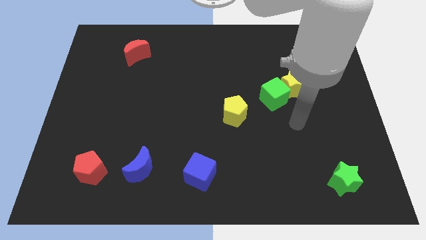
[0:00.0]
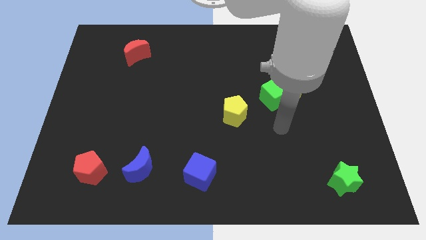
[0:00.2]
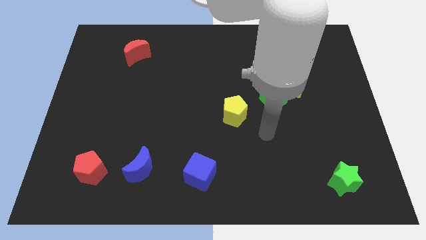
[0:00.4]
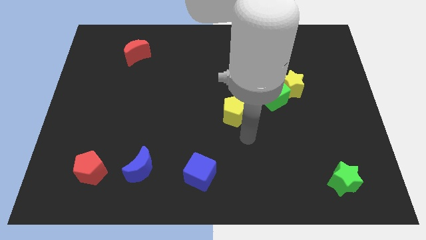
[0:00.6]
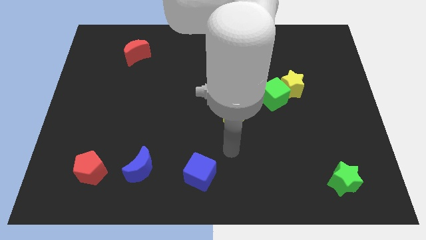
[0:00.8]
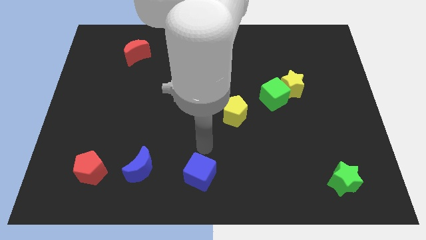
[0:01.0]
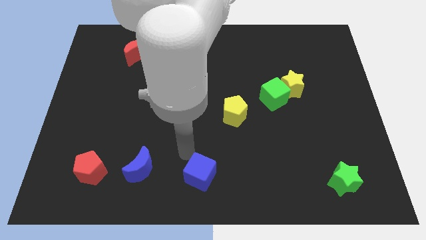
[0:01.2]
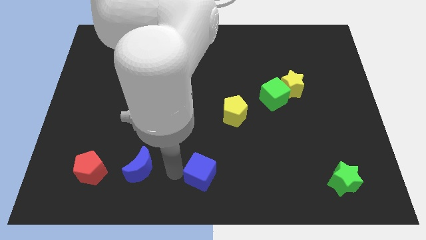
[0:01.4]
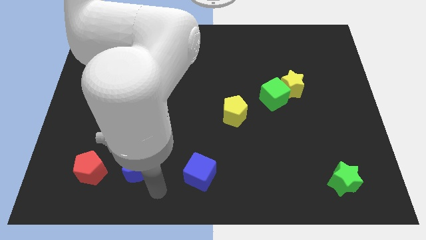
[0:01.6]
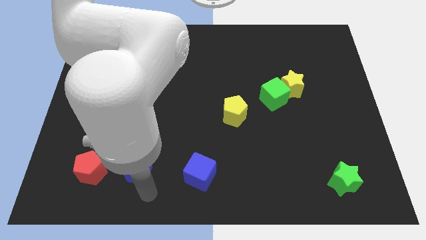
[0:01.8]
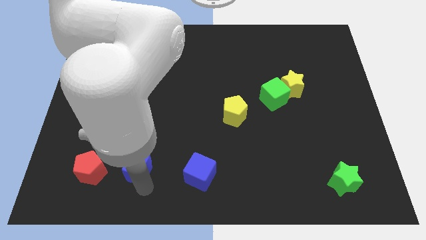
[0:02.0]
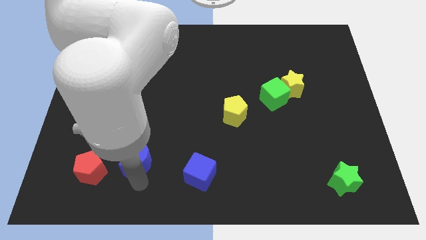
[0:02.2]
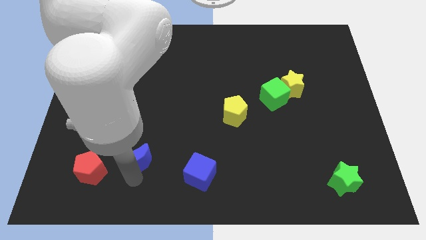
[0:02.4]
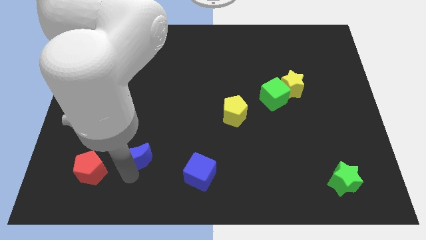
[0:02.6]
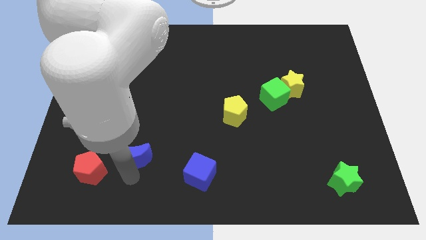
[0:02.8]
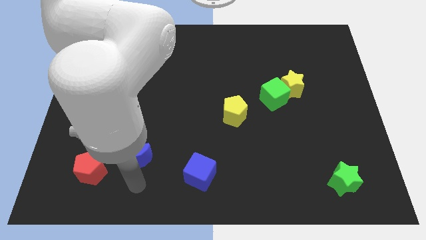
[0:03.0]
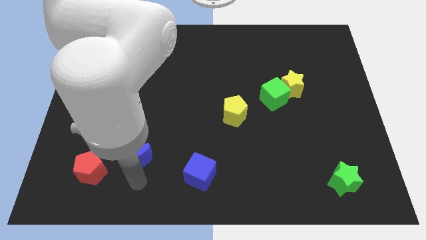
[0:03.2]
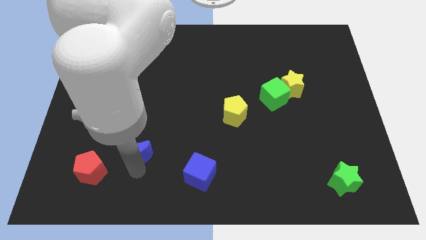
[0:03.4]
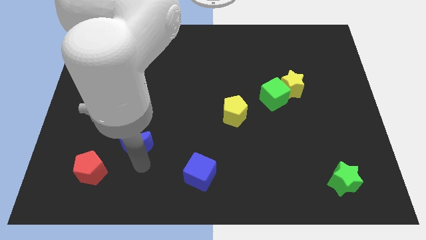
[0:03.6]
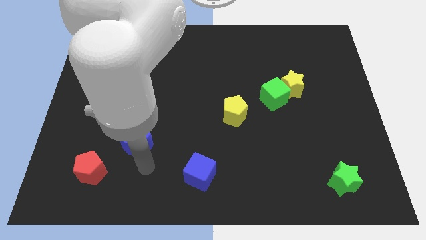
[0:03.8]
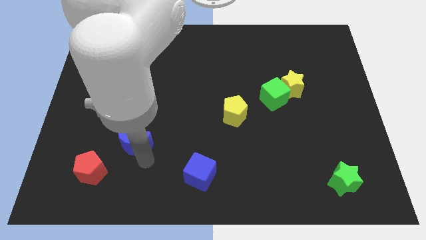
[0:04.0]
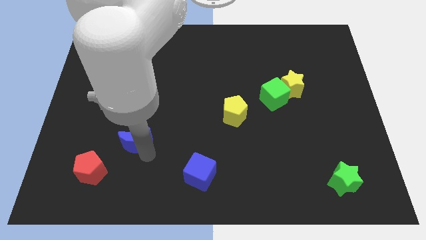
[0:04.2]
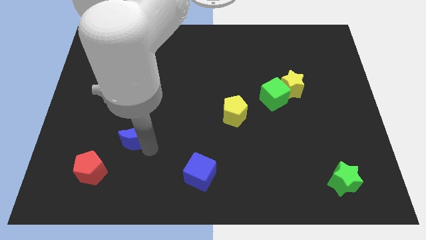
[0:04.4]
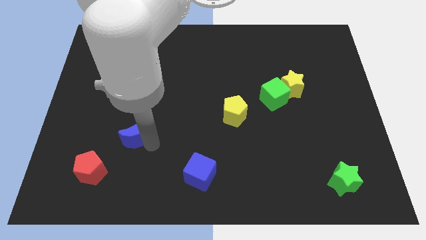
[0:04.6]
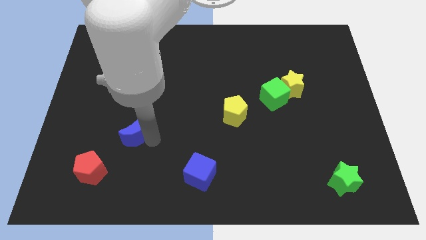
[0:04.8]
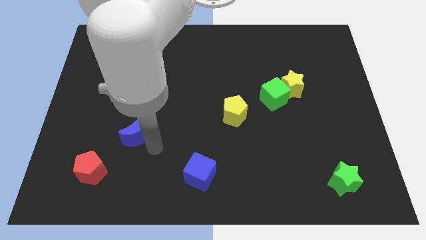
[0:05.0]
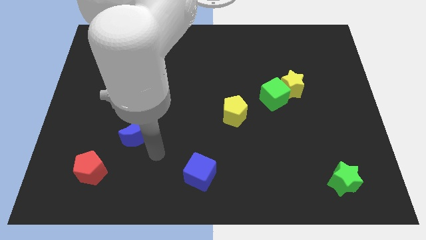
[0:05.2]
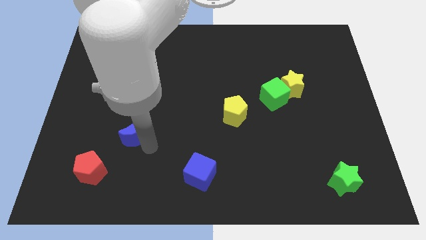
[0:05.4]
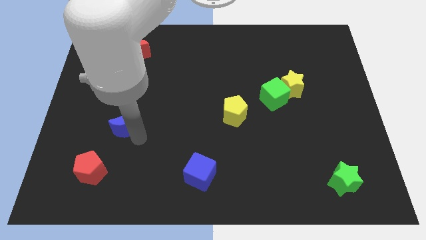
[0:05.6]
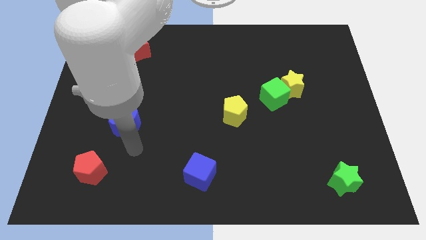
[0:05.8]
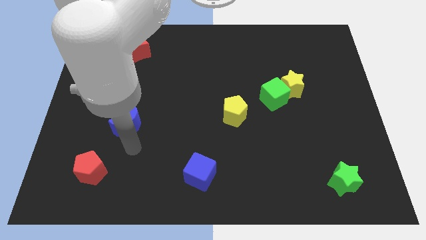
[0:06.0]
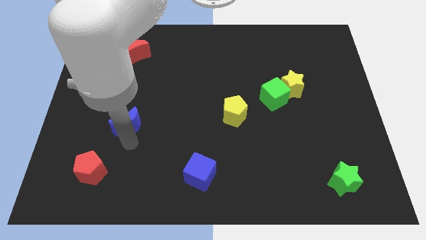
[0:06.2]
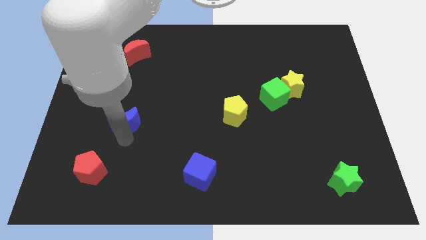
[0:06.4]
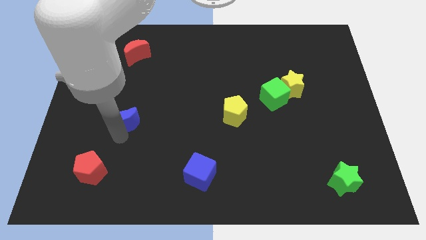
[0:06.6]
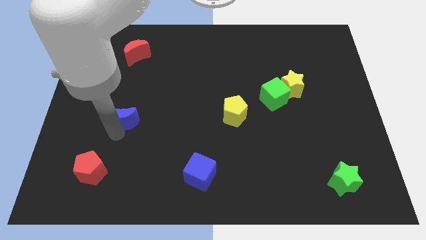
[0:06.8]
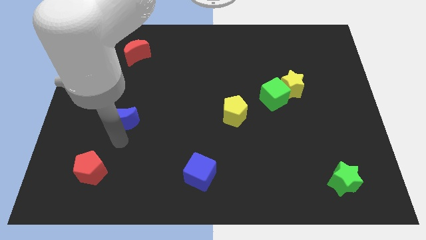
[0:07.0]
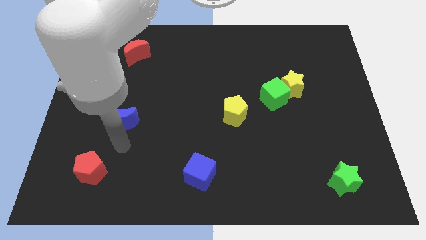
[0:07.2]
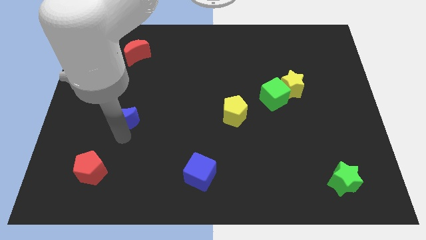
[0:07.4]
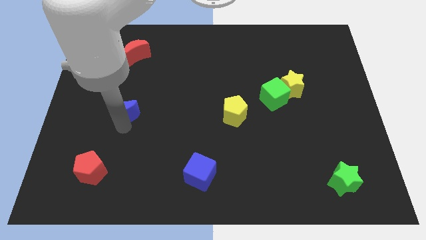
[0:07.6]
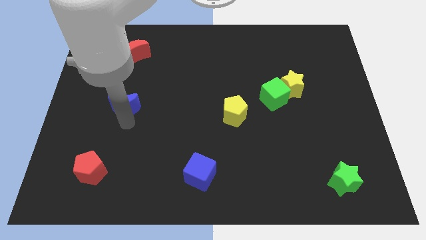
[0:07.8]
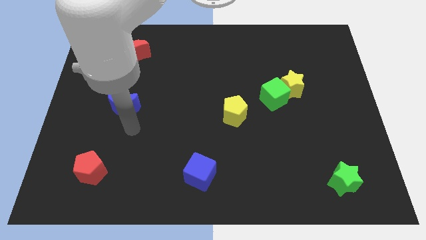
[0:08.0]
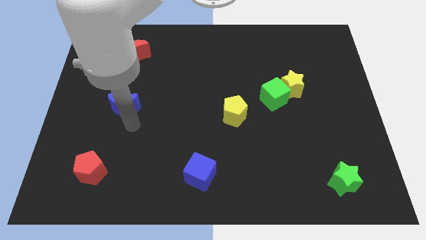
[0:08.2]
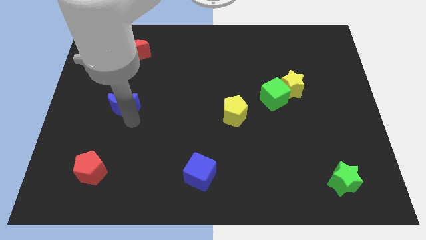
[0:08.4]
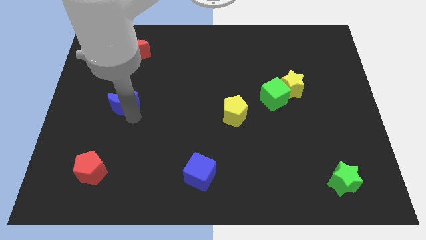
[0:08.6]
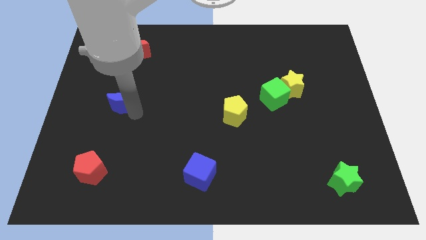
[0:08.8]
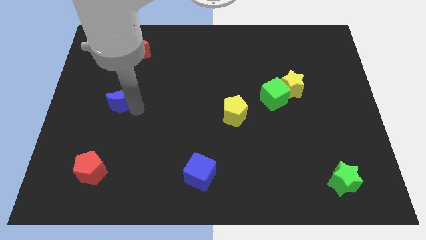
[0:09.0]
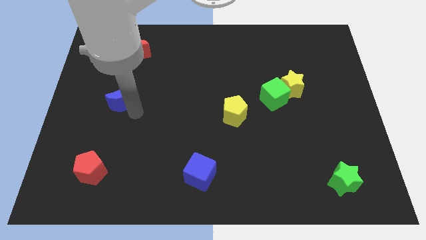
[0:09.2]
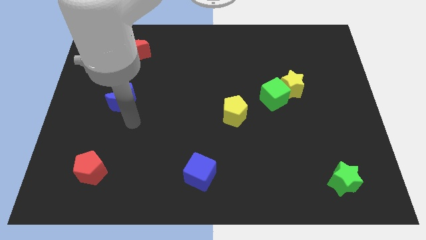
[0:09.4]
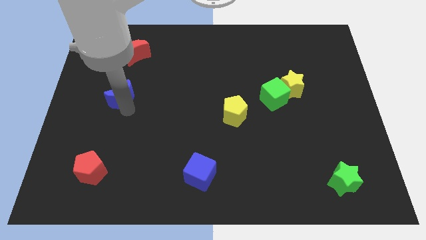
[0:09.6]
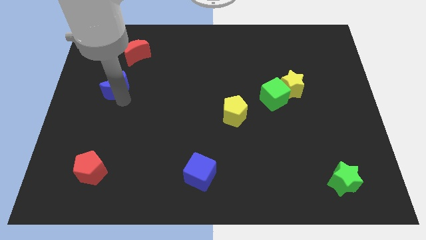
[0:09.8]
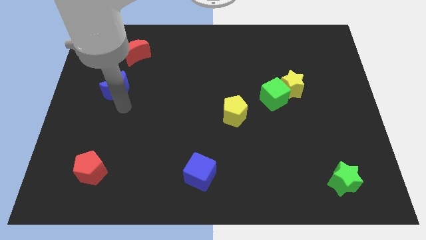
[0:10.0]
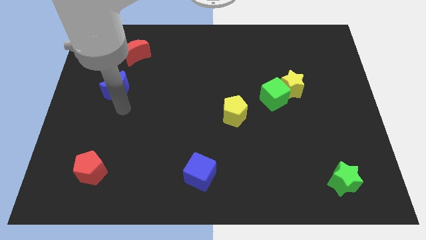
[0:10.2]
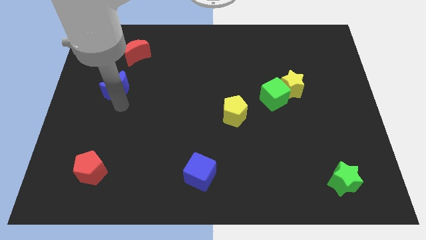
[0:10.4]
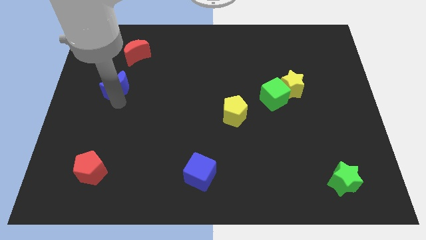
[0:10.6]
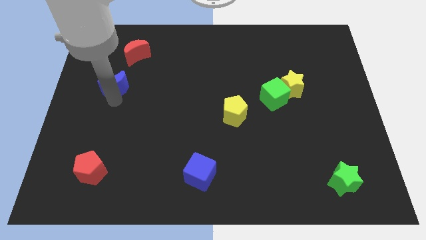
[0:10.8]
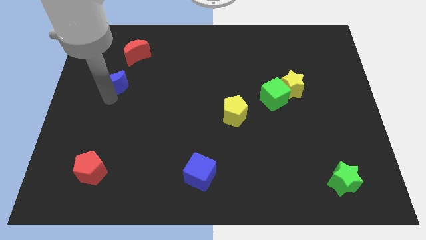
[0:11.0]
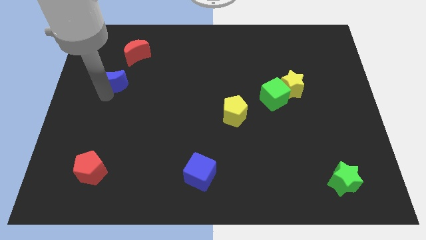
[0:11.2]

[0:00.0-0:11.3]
put the blue moon diagonally down and to the left of the red moon
